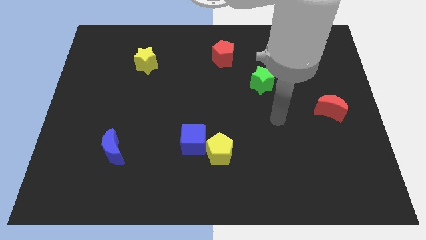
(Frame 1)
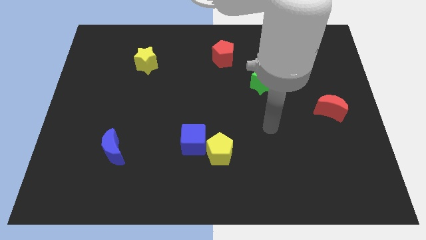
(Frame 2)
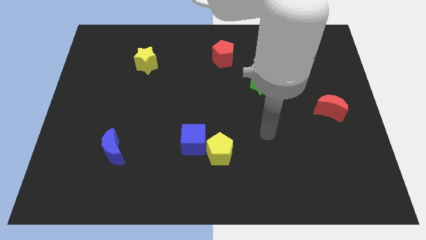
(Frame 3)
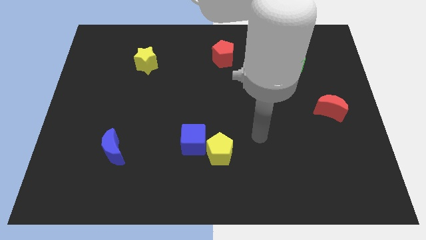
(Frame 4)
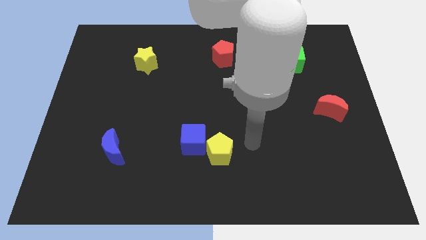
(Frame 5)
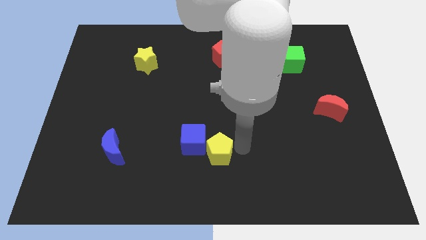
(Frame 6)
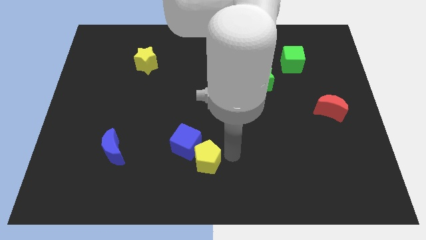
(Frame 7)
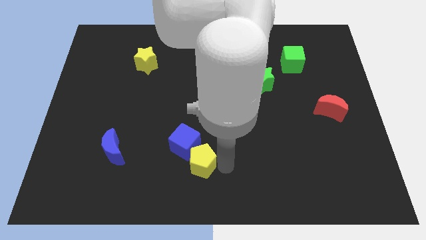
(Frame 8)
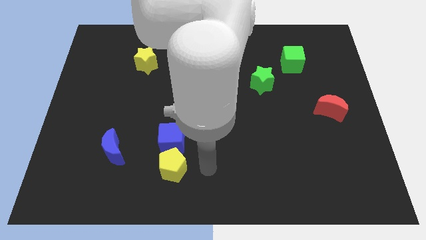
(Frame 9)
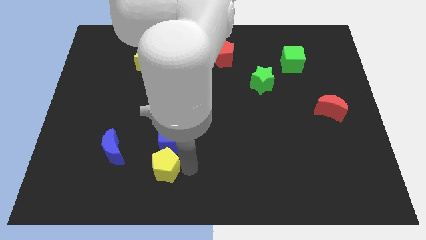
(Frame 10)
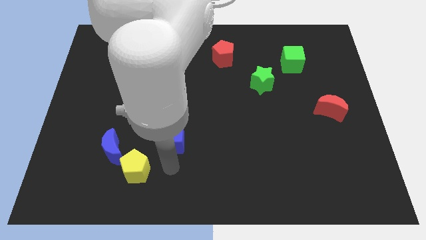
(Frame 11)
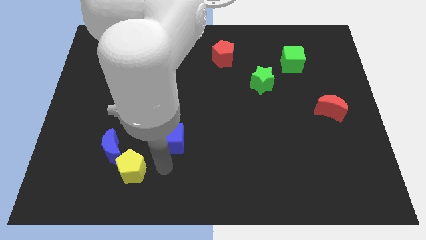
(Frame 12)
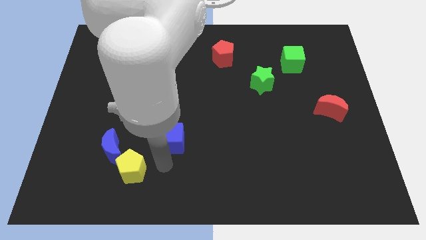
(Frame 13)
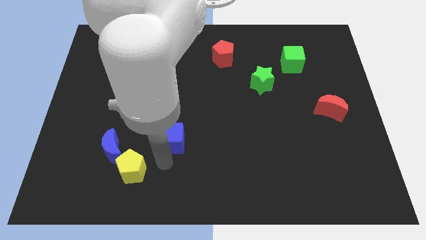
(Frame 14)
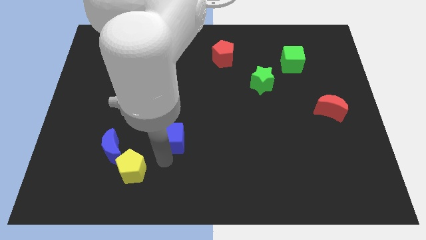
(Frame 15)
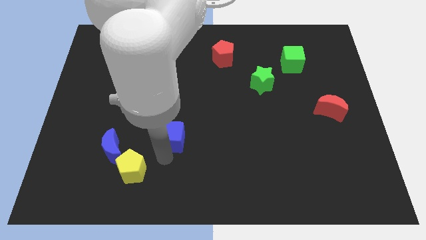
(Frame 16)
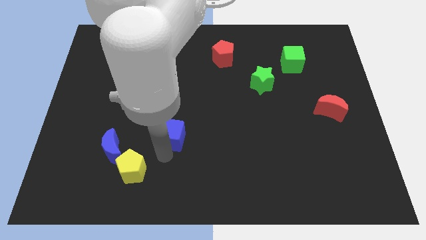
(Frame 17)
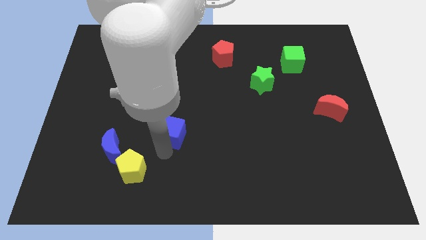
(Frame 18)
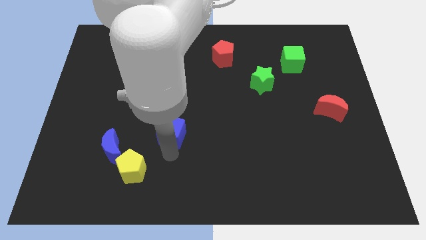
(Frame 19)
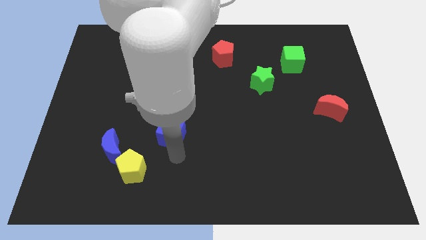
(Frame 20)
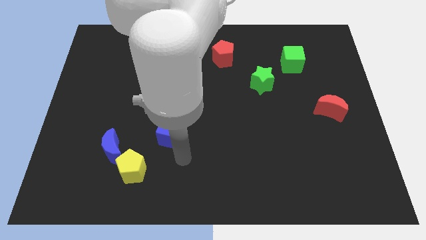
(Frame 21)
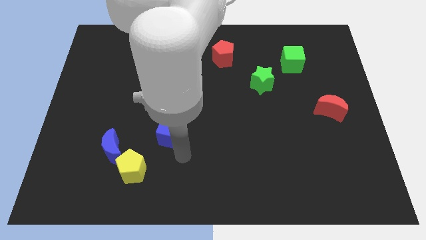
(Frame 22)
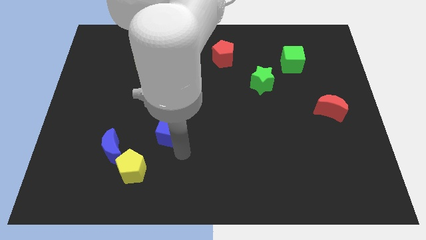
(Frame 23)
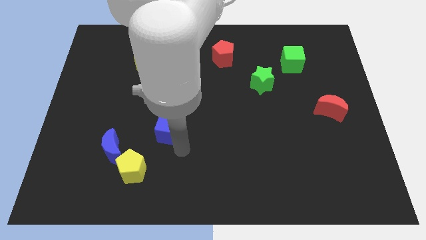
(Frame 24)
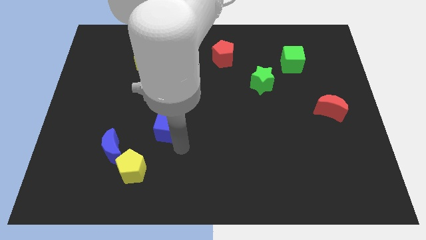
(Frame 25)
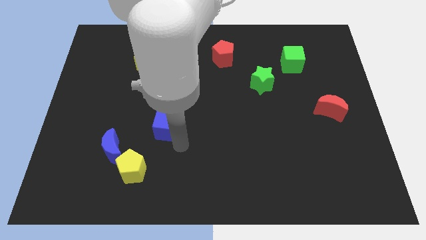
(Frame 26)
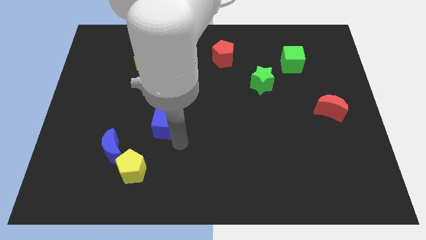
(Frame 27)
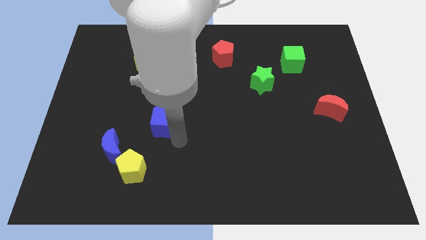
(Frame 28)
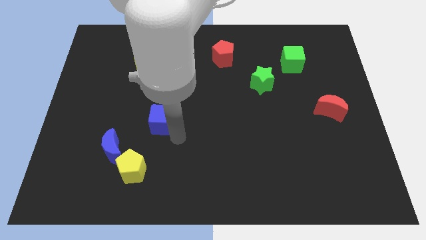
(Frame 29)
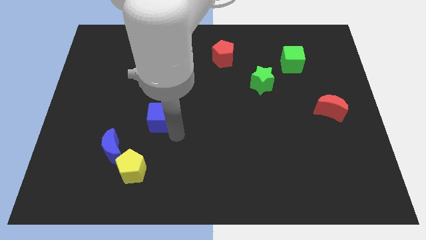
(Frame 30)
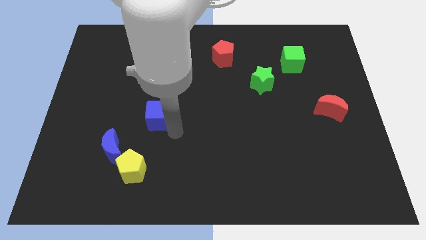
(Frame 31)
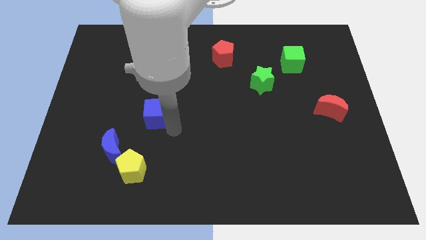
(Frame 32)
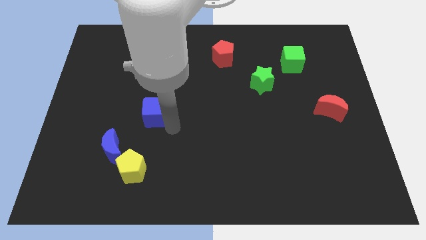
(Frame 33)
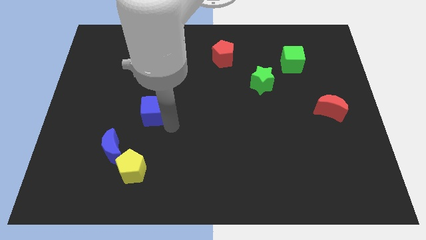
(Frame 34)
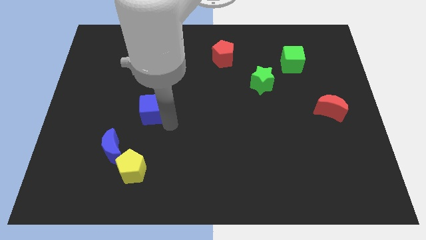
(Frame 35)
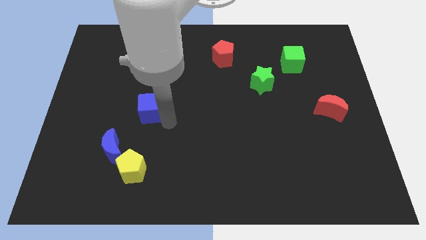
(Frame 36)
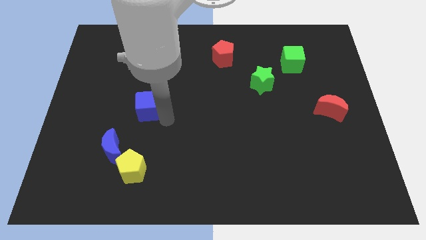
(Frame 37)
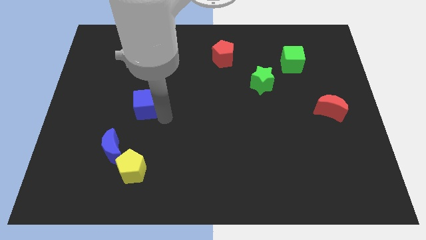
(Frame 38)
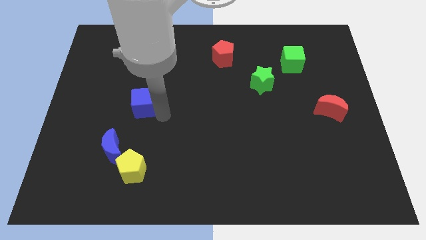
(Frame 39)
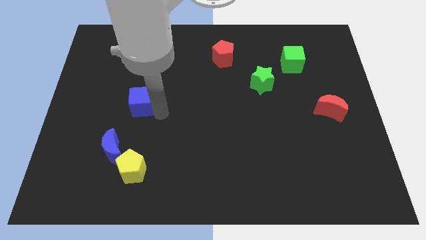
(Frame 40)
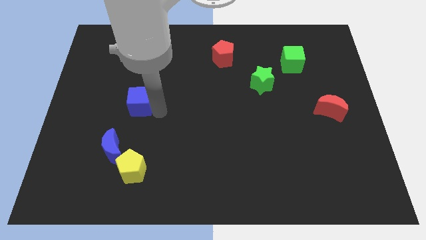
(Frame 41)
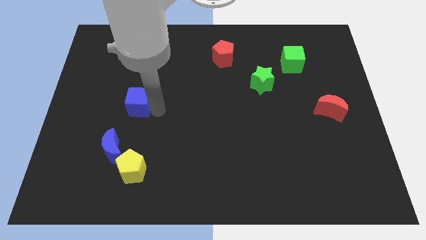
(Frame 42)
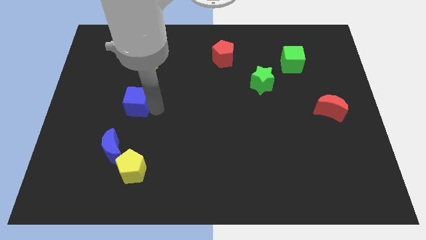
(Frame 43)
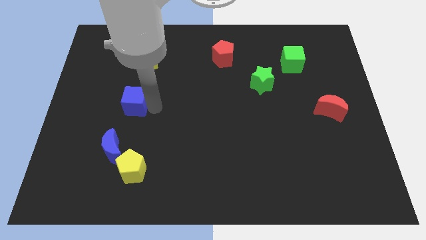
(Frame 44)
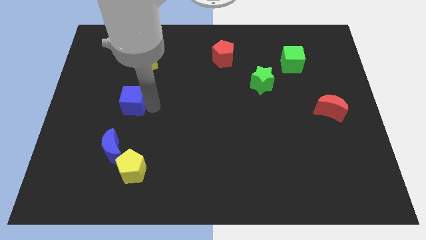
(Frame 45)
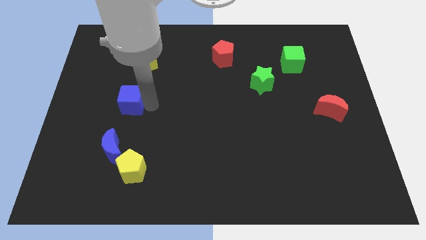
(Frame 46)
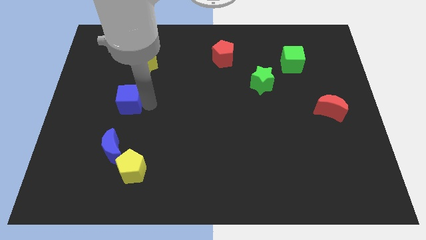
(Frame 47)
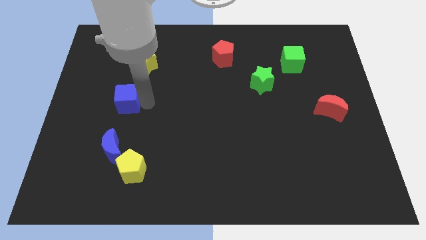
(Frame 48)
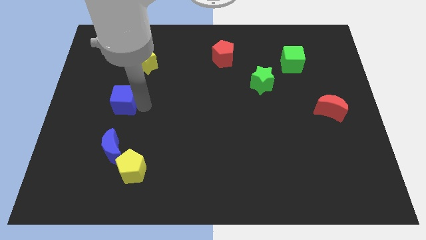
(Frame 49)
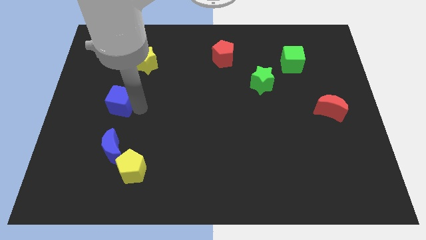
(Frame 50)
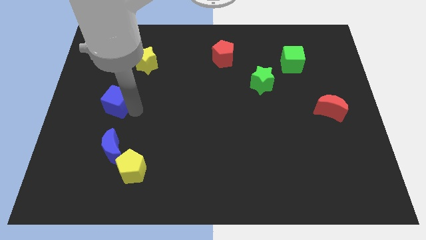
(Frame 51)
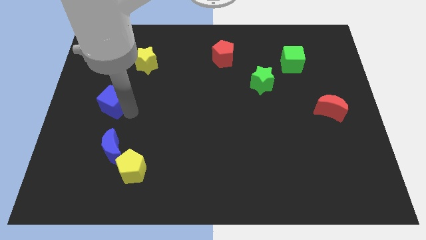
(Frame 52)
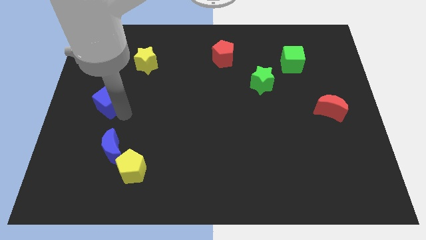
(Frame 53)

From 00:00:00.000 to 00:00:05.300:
slide the blue cube up and then to the left

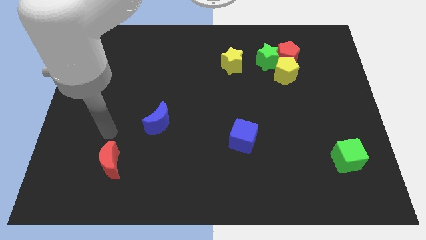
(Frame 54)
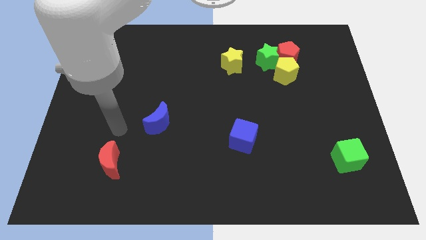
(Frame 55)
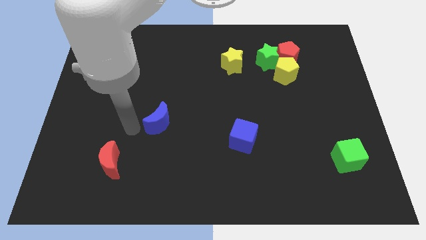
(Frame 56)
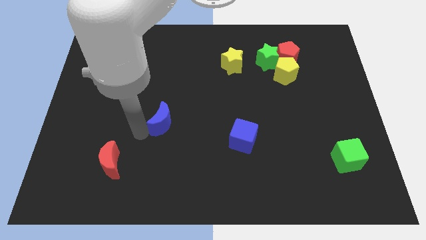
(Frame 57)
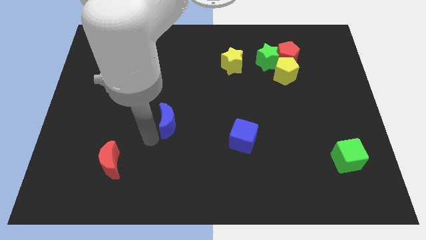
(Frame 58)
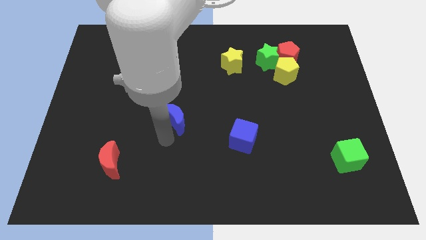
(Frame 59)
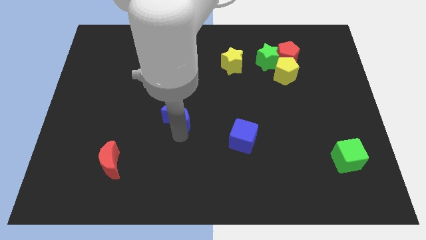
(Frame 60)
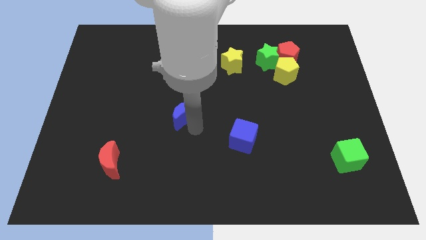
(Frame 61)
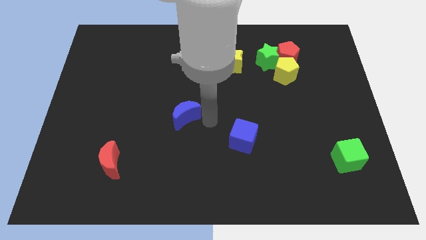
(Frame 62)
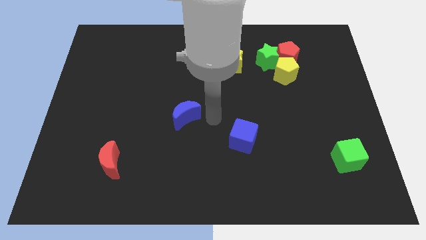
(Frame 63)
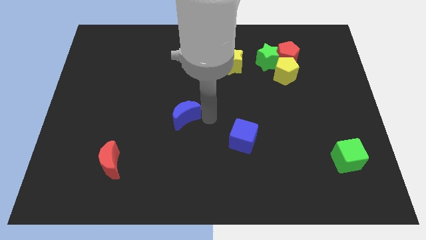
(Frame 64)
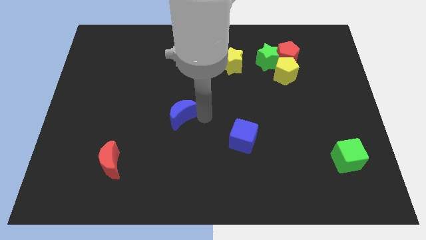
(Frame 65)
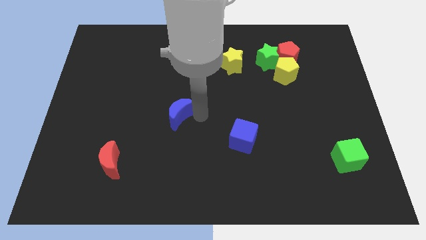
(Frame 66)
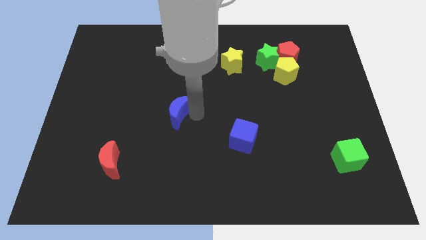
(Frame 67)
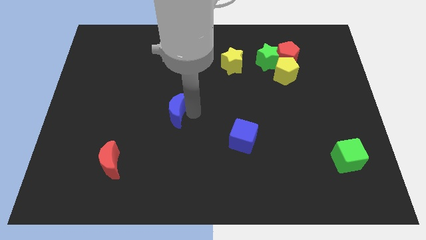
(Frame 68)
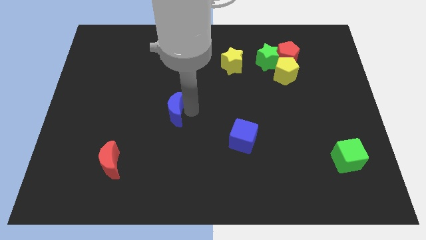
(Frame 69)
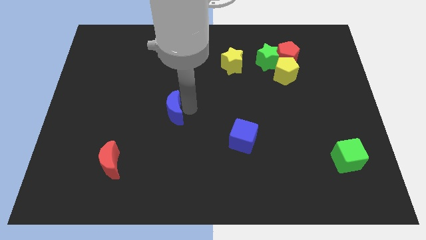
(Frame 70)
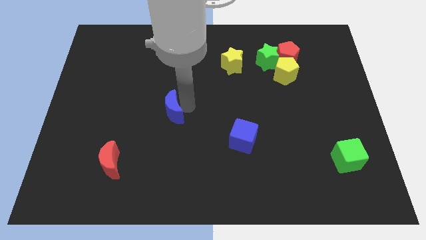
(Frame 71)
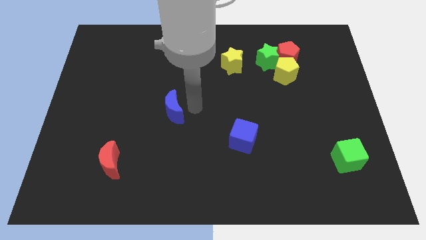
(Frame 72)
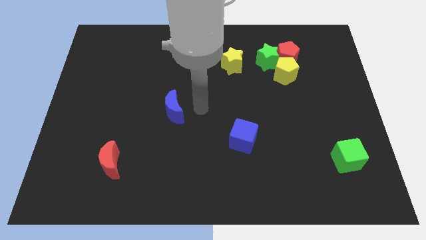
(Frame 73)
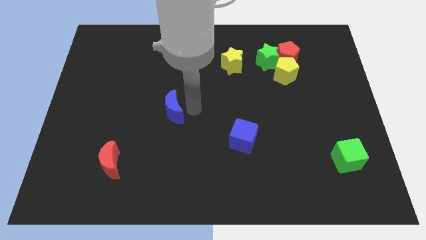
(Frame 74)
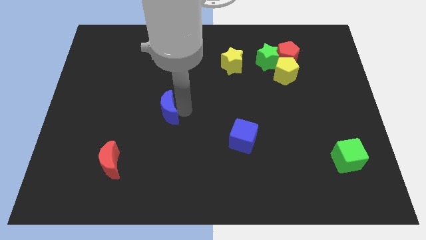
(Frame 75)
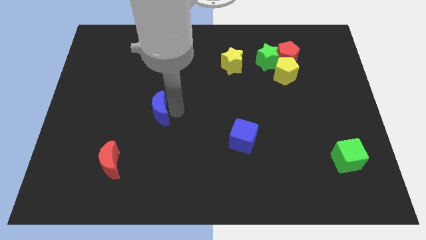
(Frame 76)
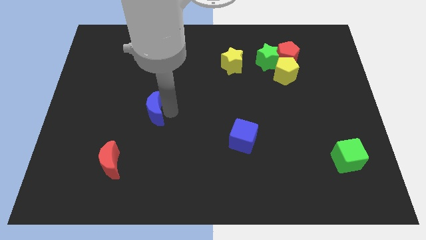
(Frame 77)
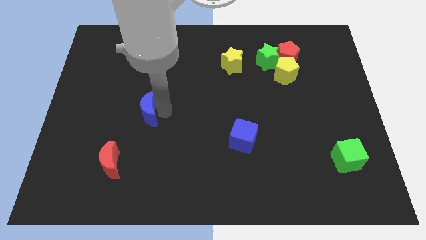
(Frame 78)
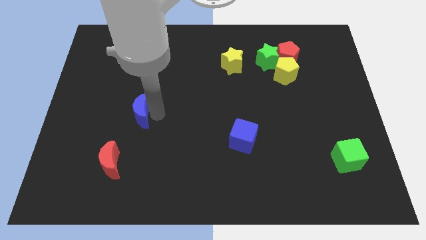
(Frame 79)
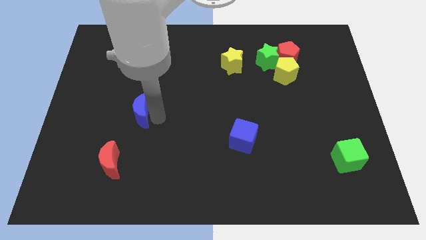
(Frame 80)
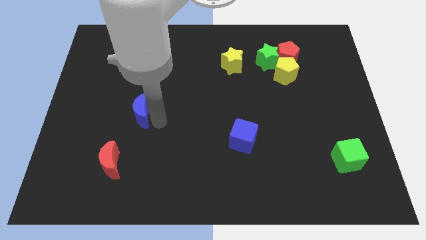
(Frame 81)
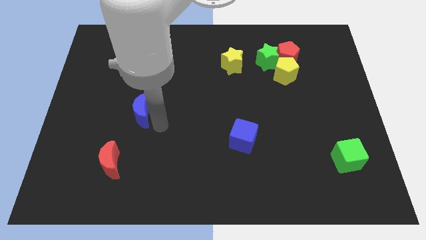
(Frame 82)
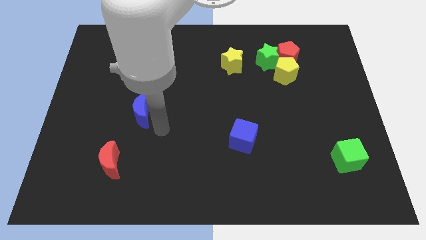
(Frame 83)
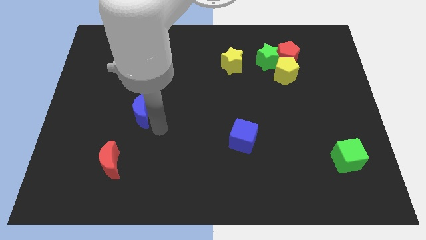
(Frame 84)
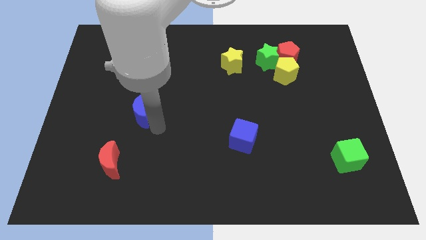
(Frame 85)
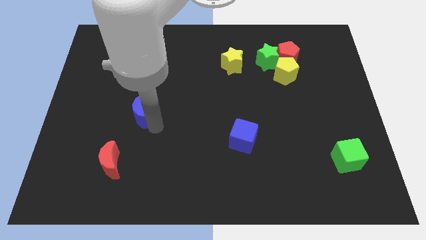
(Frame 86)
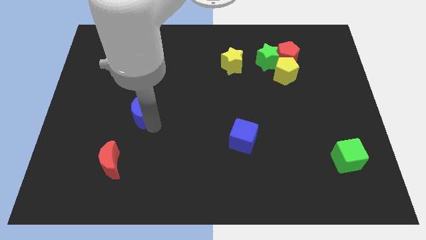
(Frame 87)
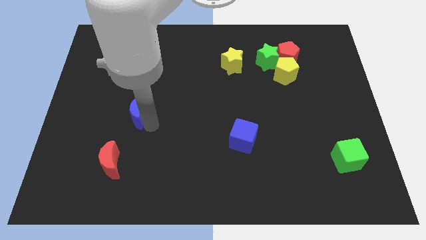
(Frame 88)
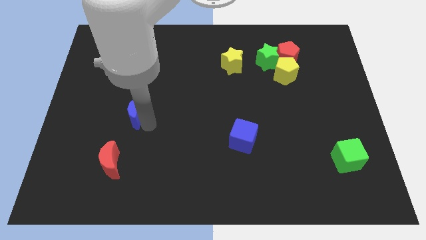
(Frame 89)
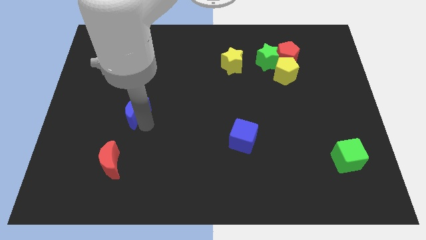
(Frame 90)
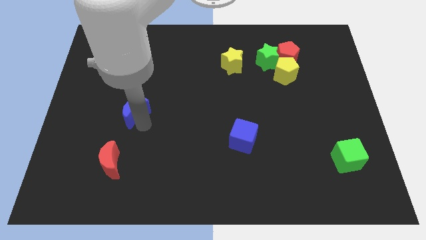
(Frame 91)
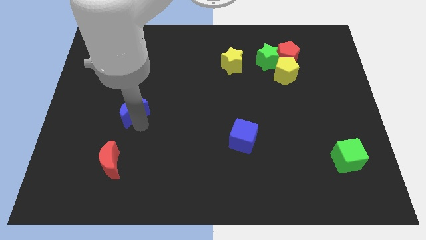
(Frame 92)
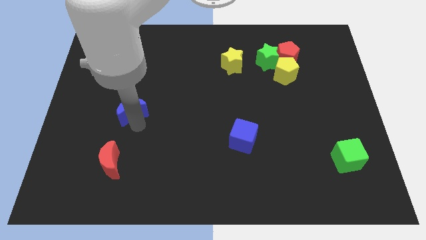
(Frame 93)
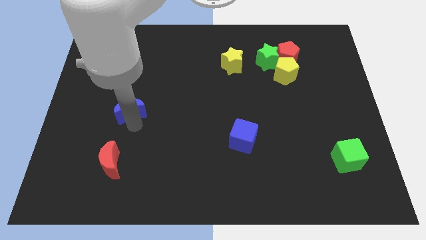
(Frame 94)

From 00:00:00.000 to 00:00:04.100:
move the blue moon diagonally up and left a little bit
